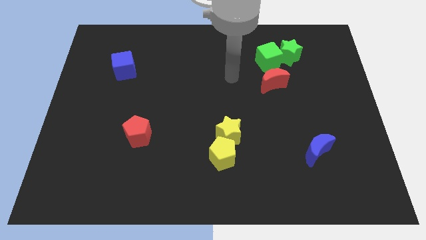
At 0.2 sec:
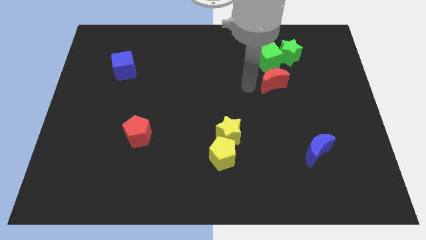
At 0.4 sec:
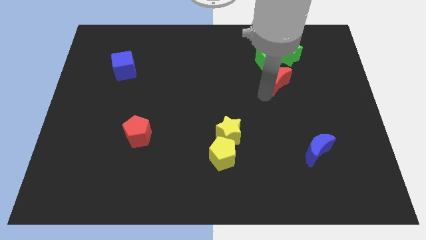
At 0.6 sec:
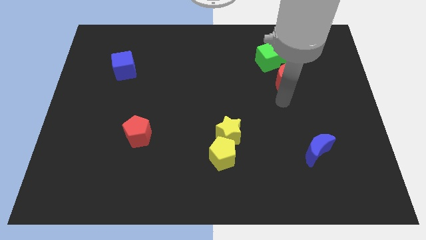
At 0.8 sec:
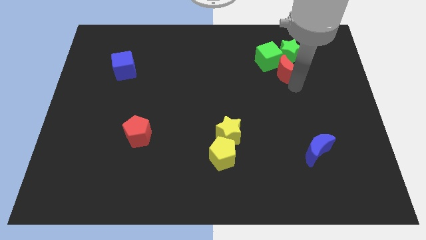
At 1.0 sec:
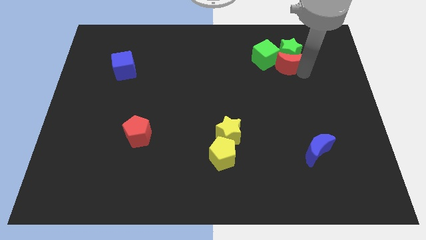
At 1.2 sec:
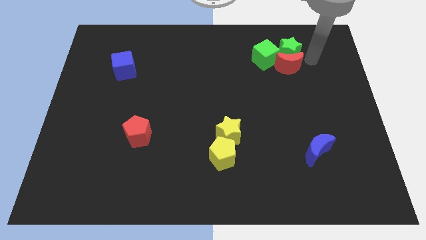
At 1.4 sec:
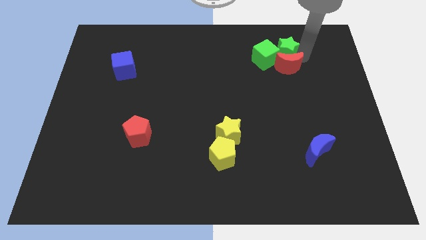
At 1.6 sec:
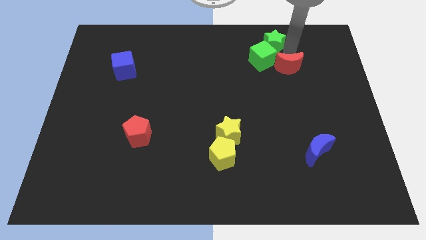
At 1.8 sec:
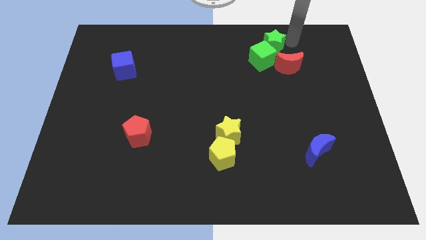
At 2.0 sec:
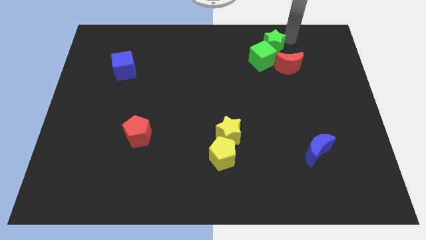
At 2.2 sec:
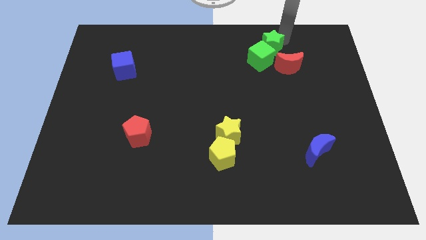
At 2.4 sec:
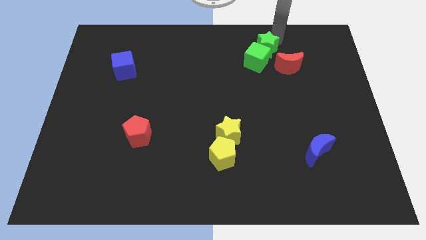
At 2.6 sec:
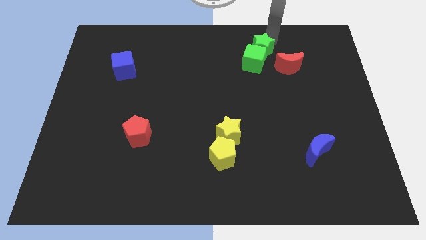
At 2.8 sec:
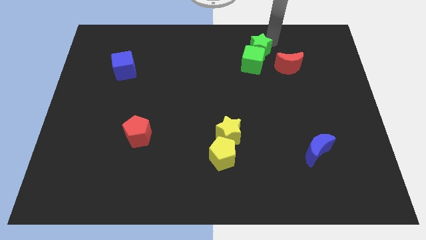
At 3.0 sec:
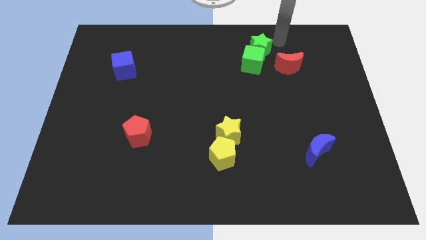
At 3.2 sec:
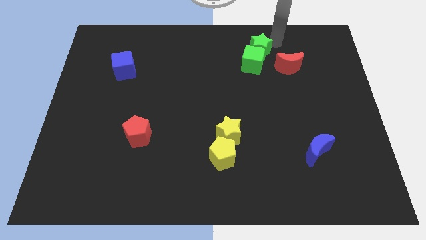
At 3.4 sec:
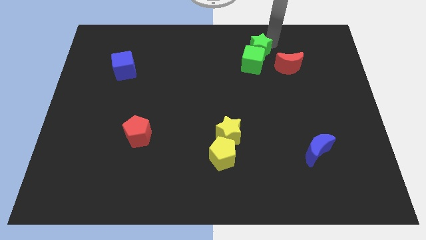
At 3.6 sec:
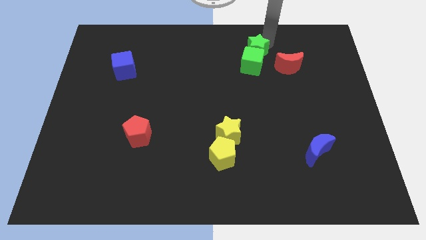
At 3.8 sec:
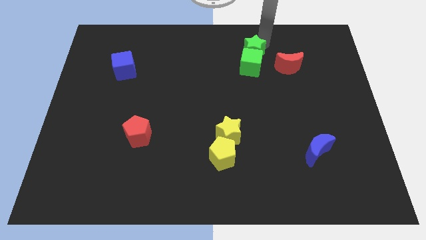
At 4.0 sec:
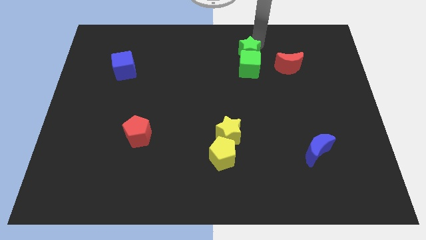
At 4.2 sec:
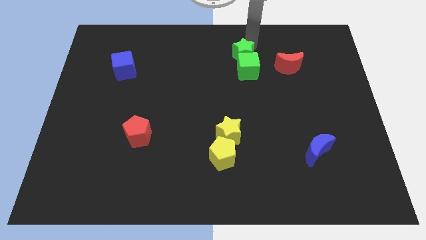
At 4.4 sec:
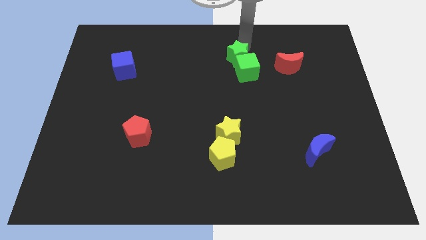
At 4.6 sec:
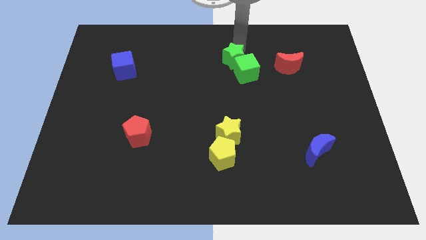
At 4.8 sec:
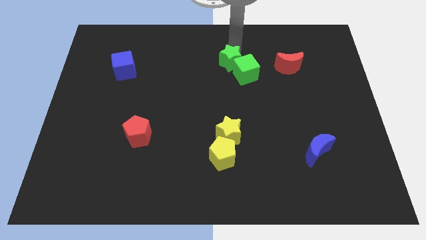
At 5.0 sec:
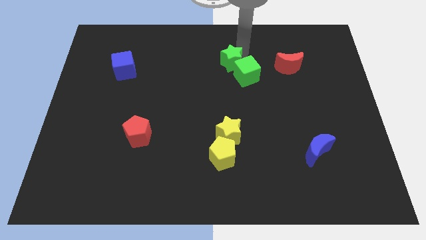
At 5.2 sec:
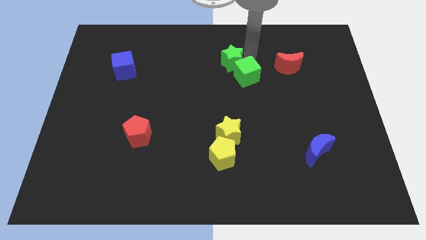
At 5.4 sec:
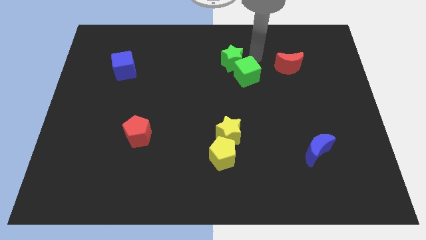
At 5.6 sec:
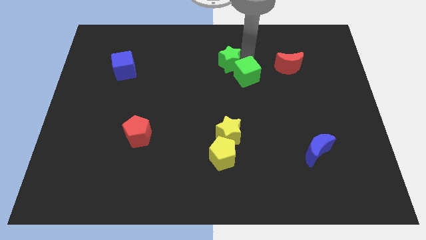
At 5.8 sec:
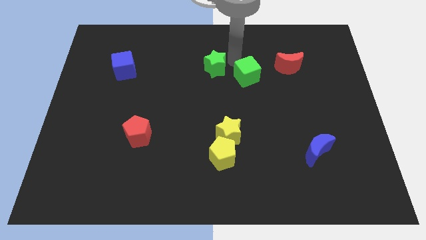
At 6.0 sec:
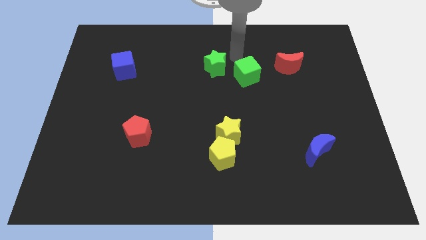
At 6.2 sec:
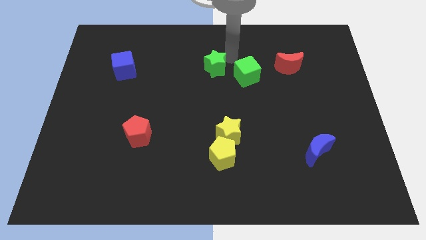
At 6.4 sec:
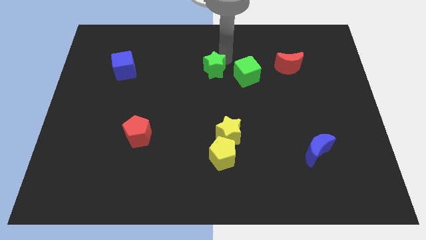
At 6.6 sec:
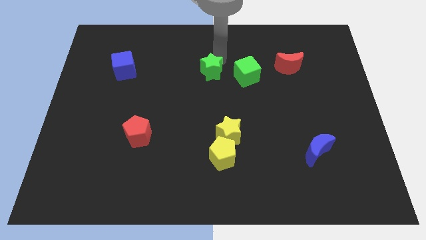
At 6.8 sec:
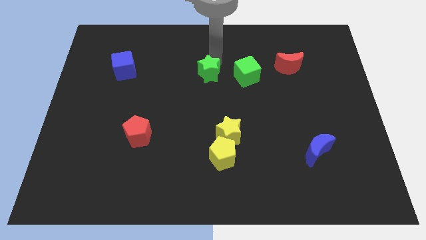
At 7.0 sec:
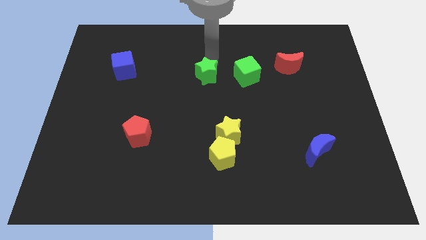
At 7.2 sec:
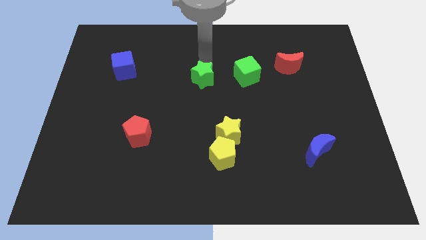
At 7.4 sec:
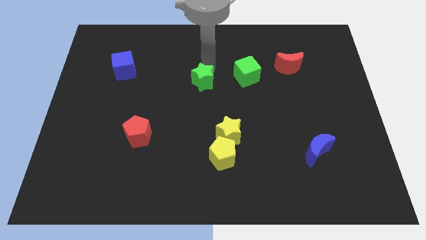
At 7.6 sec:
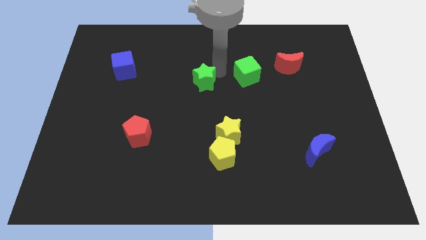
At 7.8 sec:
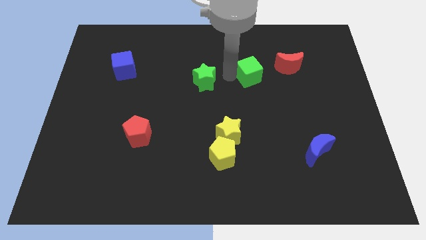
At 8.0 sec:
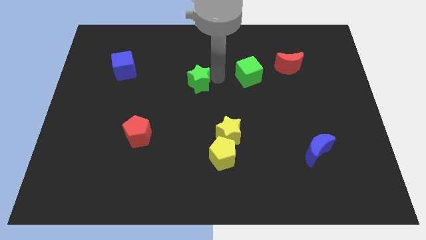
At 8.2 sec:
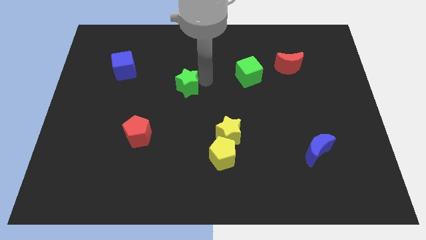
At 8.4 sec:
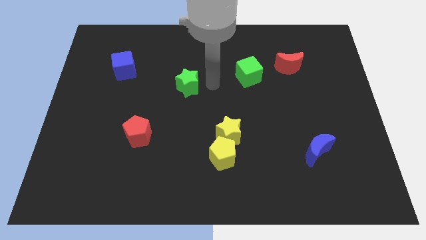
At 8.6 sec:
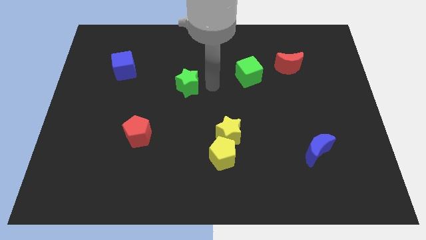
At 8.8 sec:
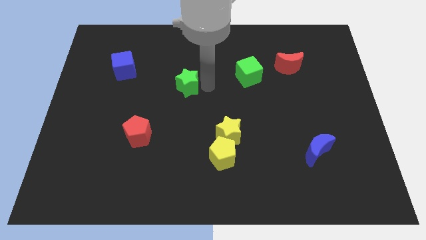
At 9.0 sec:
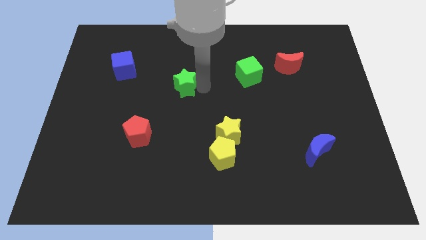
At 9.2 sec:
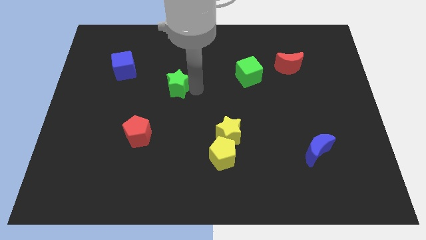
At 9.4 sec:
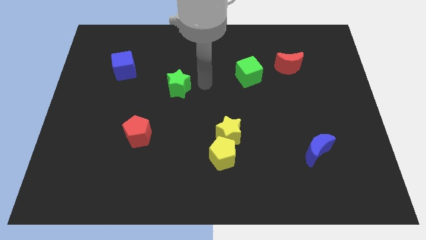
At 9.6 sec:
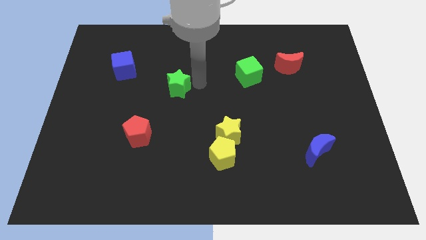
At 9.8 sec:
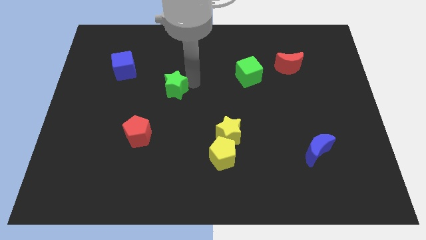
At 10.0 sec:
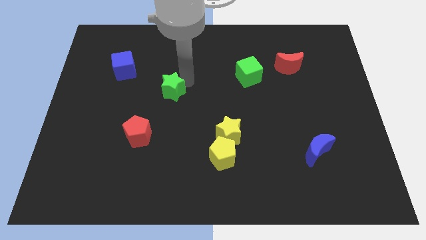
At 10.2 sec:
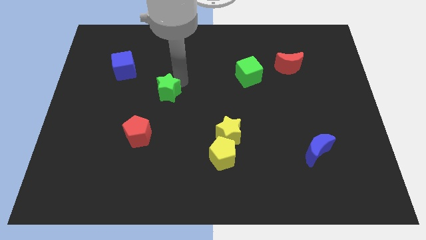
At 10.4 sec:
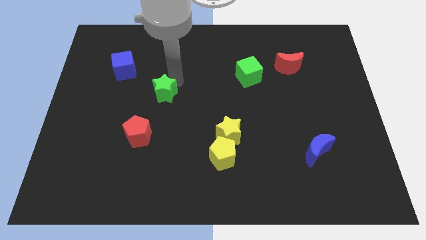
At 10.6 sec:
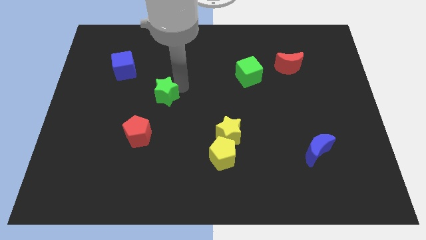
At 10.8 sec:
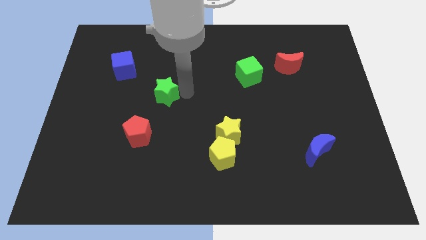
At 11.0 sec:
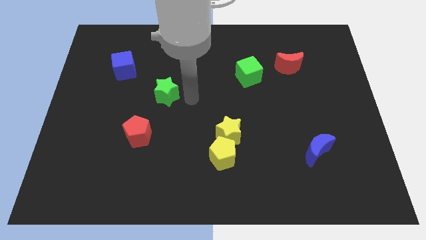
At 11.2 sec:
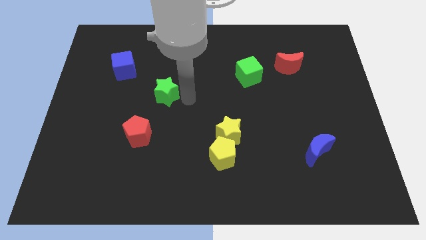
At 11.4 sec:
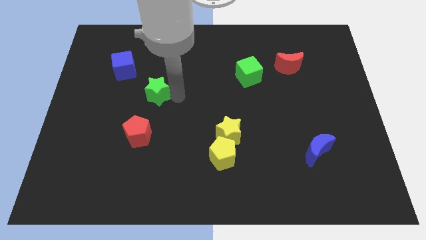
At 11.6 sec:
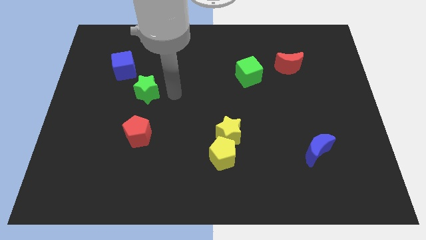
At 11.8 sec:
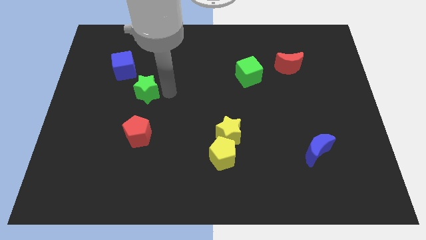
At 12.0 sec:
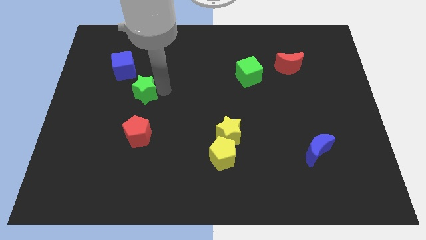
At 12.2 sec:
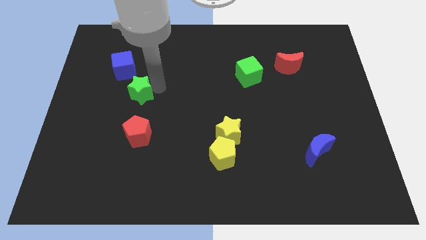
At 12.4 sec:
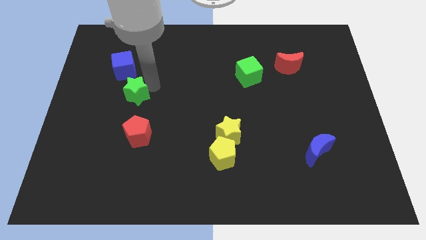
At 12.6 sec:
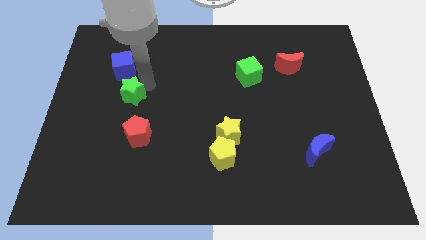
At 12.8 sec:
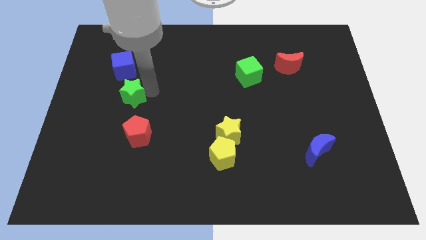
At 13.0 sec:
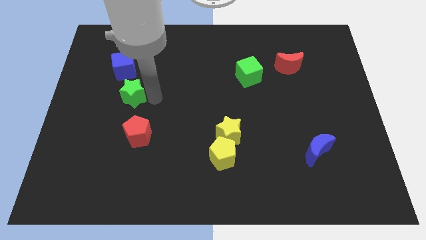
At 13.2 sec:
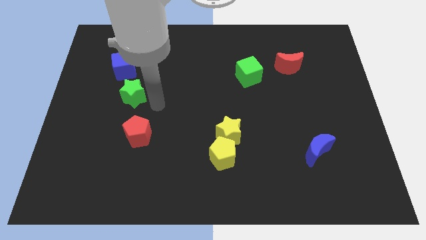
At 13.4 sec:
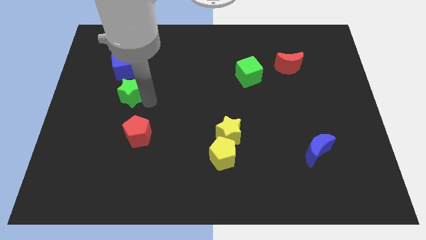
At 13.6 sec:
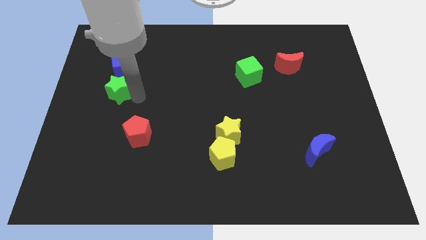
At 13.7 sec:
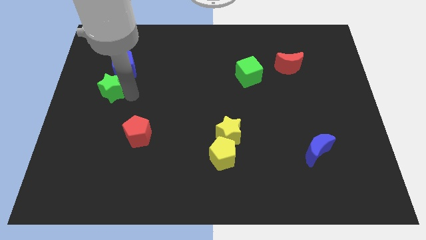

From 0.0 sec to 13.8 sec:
slide the green star to the bottom left side of the blue cube
